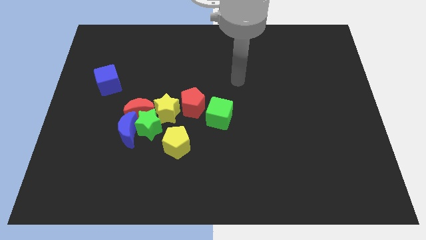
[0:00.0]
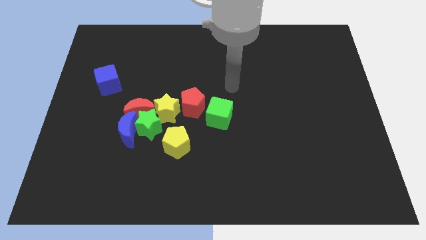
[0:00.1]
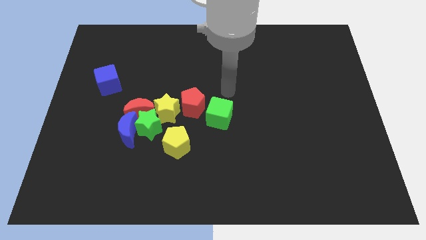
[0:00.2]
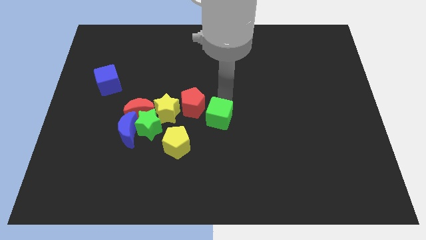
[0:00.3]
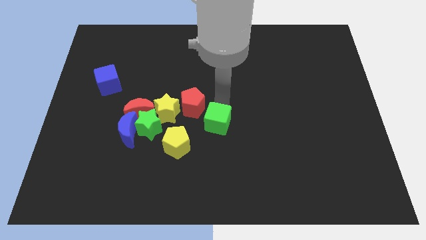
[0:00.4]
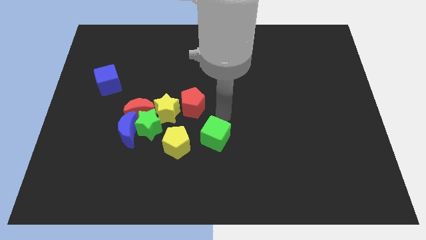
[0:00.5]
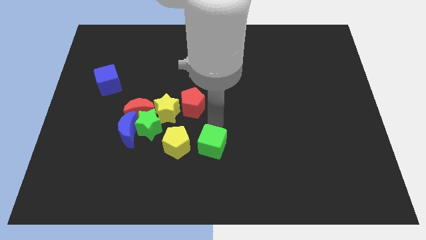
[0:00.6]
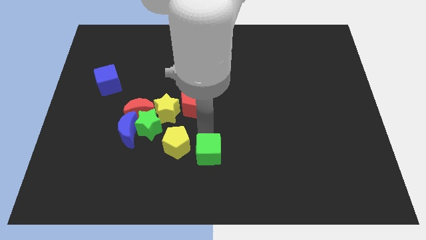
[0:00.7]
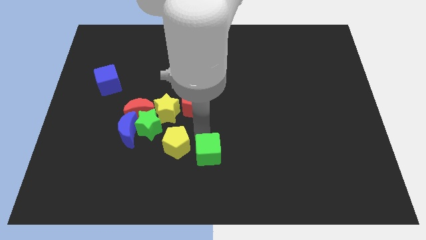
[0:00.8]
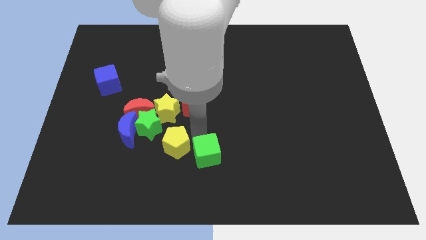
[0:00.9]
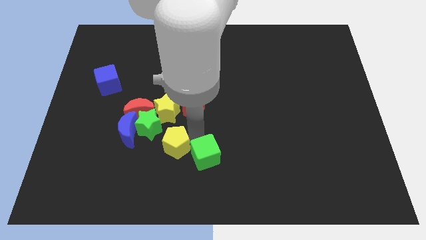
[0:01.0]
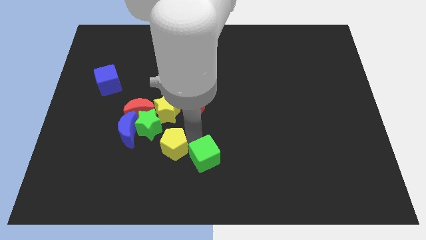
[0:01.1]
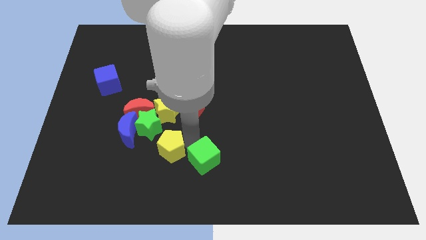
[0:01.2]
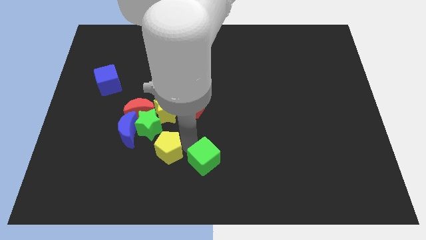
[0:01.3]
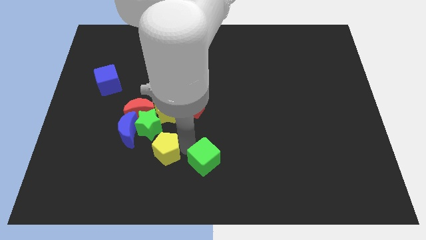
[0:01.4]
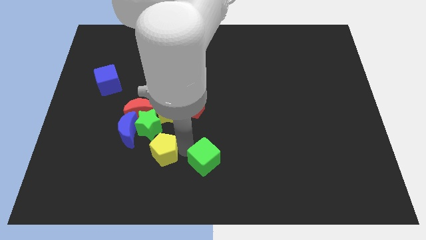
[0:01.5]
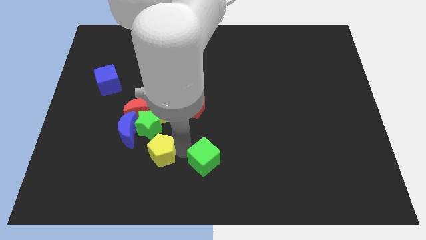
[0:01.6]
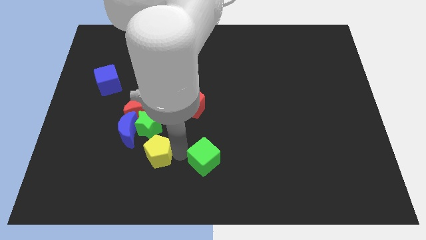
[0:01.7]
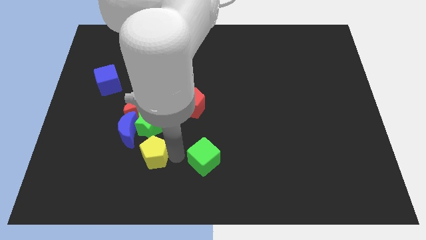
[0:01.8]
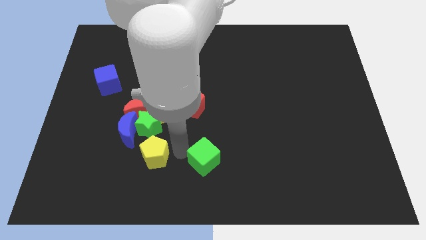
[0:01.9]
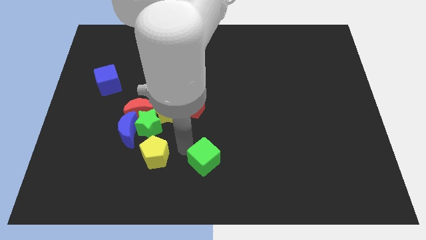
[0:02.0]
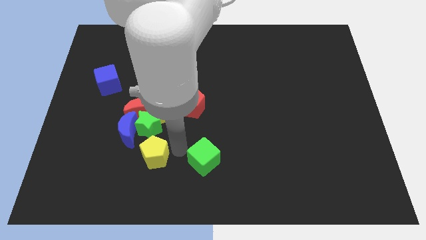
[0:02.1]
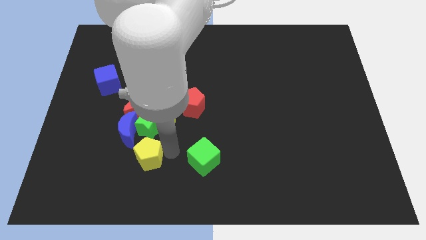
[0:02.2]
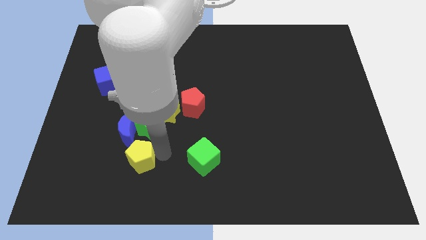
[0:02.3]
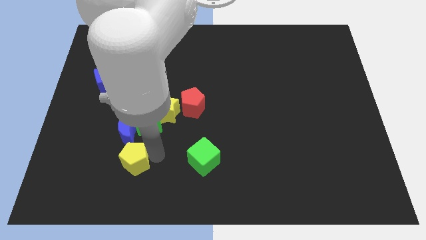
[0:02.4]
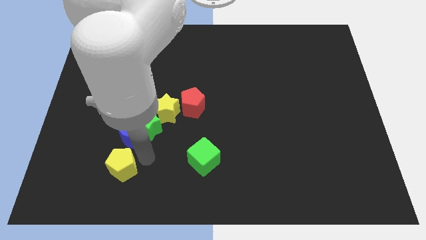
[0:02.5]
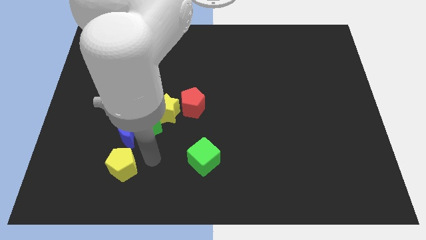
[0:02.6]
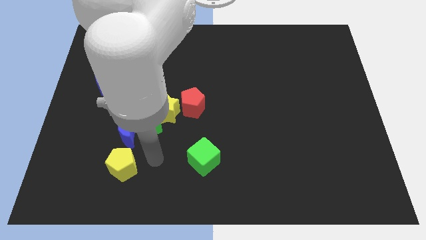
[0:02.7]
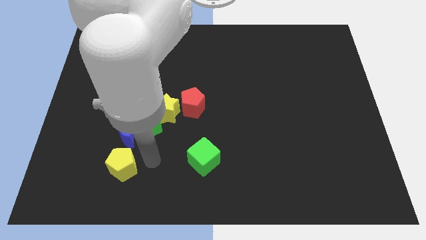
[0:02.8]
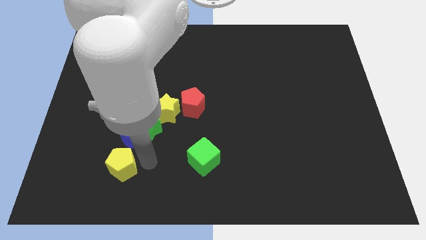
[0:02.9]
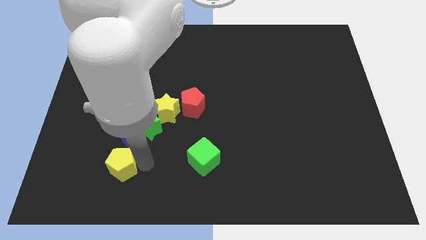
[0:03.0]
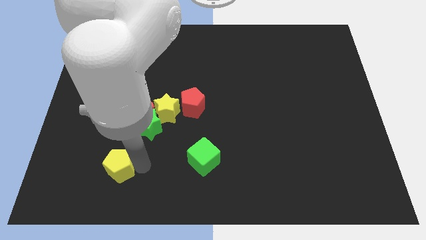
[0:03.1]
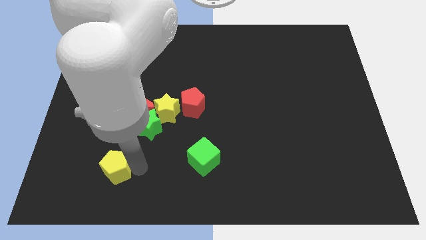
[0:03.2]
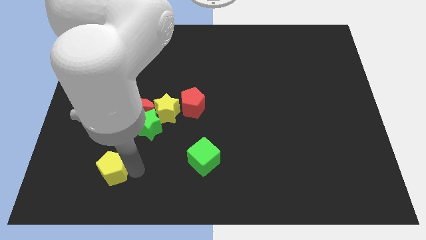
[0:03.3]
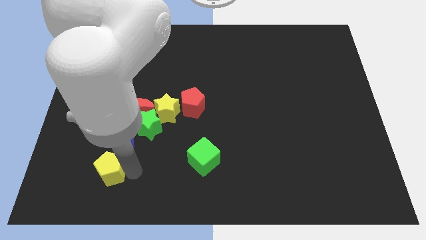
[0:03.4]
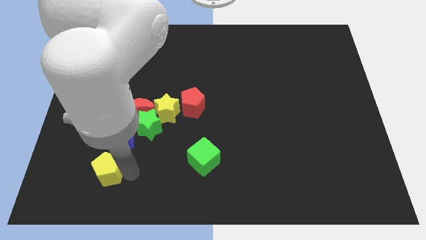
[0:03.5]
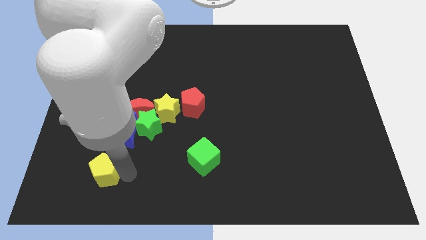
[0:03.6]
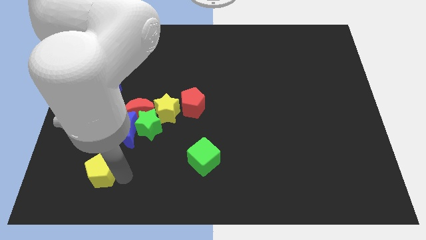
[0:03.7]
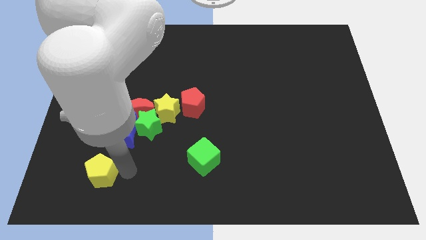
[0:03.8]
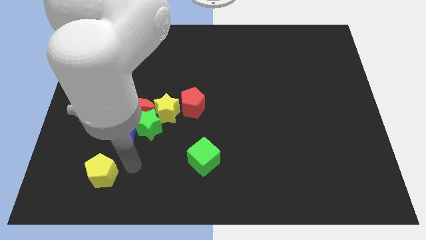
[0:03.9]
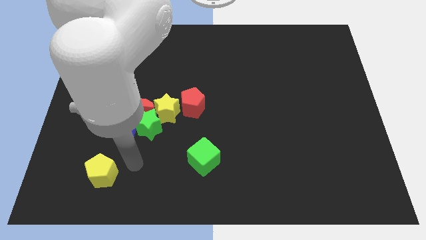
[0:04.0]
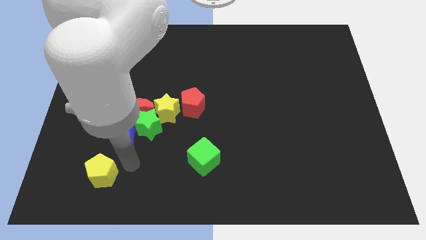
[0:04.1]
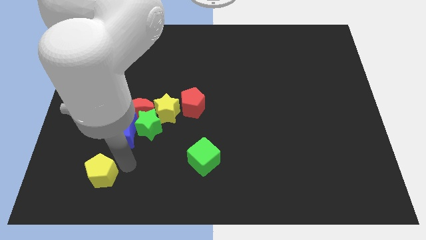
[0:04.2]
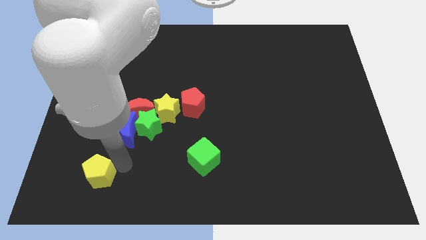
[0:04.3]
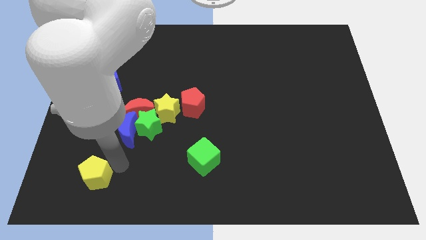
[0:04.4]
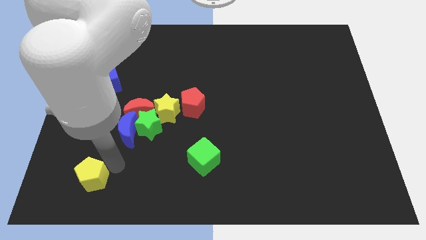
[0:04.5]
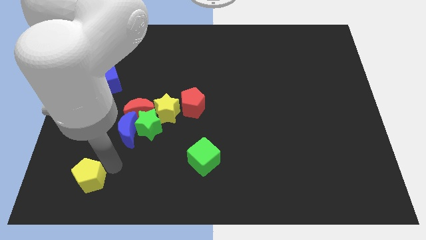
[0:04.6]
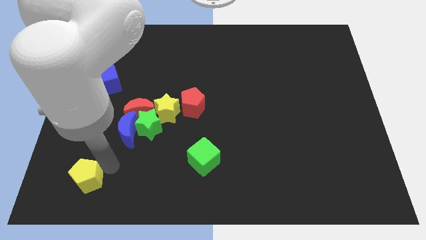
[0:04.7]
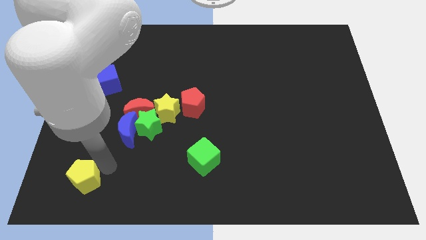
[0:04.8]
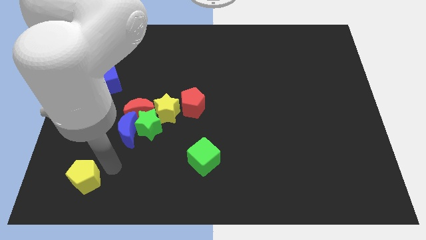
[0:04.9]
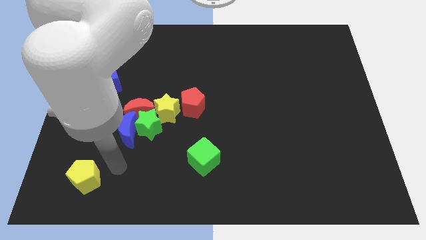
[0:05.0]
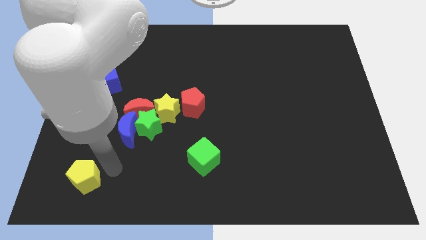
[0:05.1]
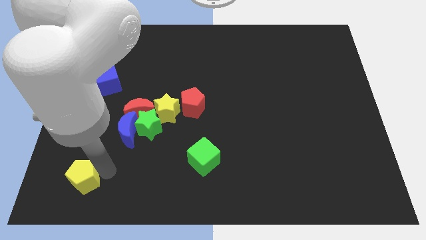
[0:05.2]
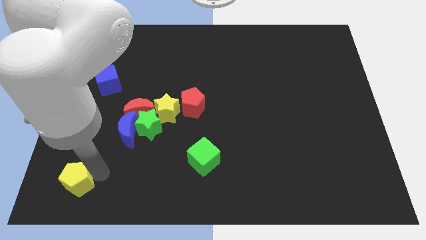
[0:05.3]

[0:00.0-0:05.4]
put the yellow pentagon to the bottom left

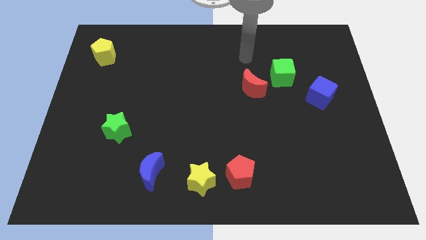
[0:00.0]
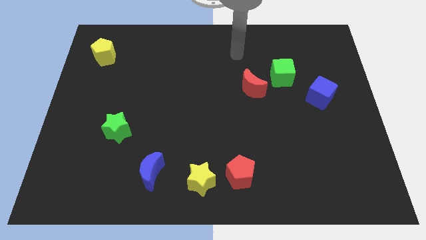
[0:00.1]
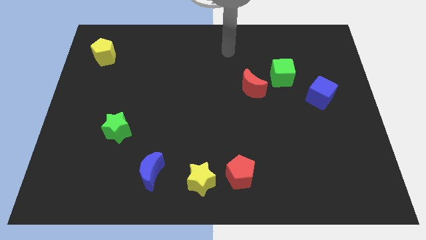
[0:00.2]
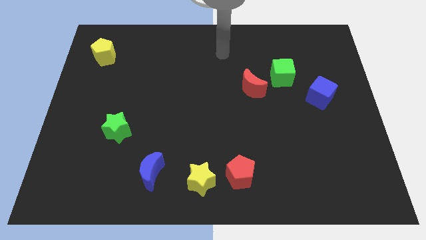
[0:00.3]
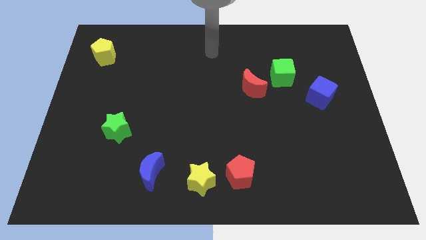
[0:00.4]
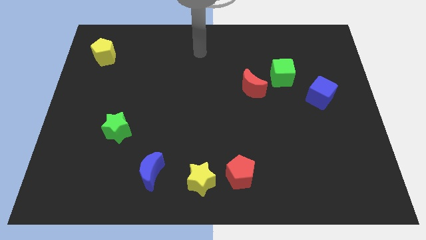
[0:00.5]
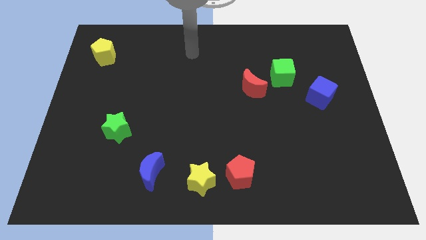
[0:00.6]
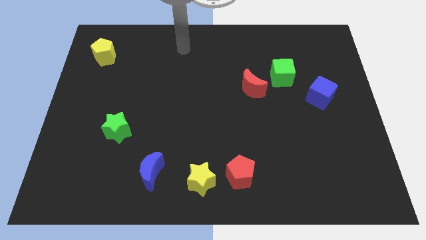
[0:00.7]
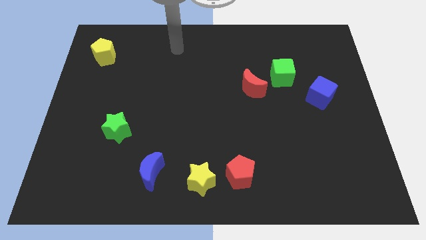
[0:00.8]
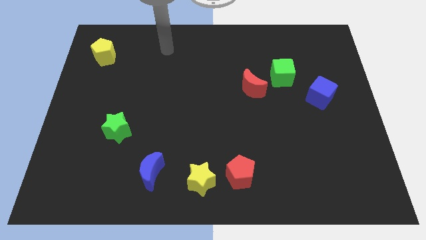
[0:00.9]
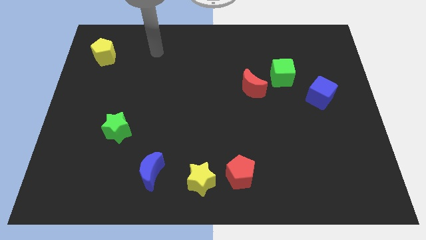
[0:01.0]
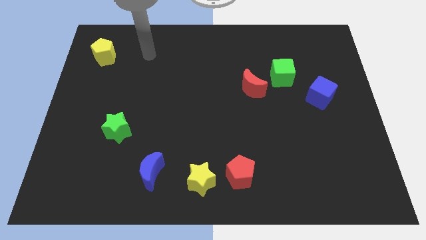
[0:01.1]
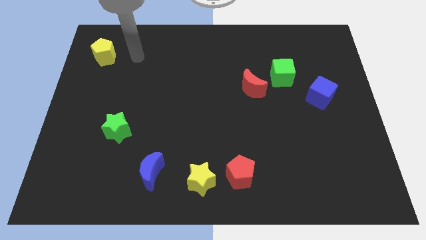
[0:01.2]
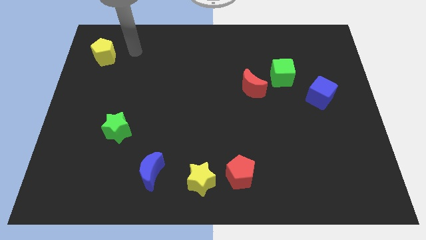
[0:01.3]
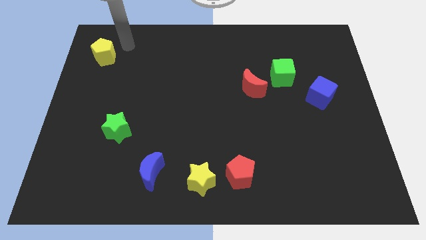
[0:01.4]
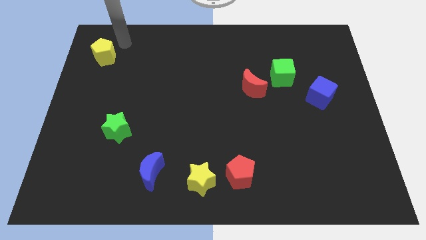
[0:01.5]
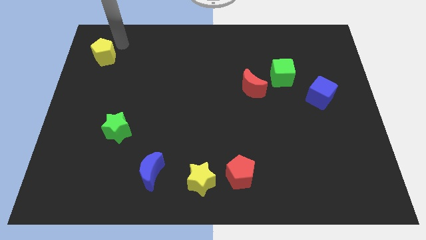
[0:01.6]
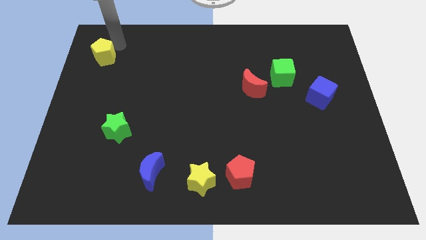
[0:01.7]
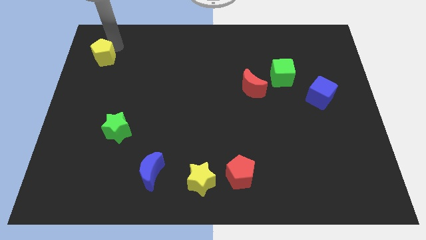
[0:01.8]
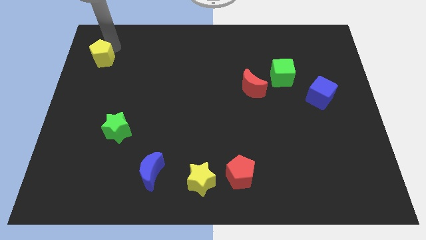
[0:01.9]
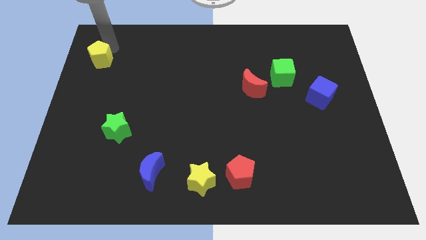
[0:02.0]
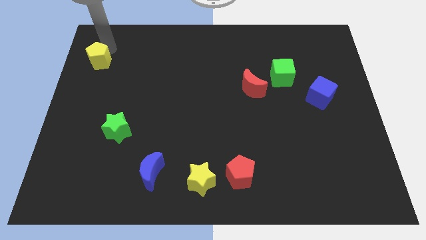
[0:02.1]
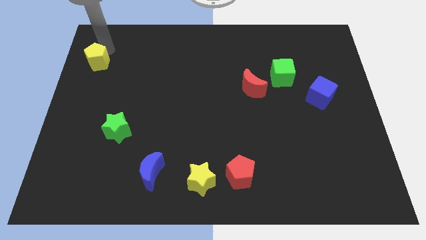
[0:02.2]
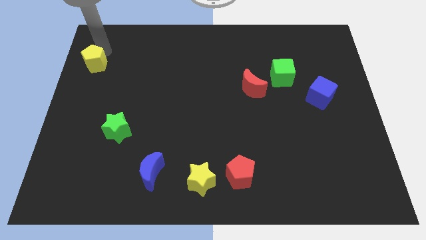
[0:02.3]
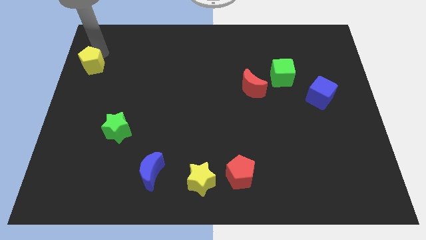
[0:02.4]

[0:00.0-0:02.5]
put the yellow pentagon to the center left

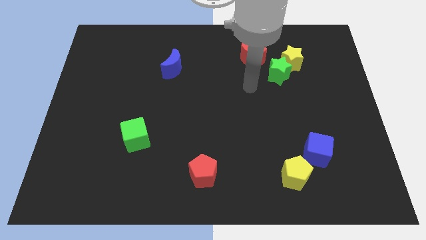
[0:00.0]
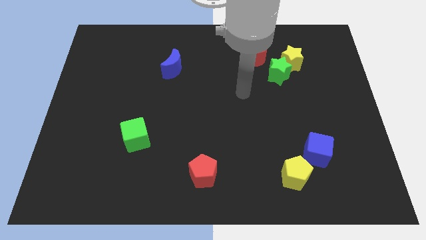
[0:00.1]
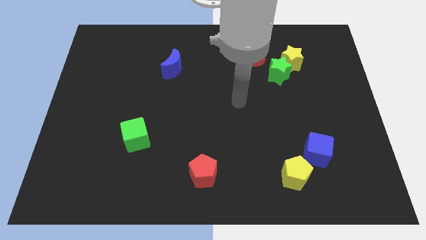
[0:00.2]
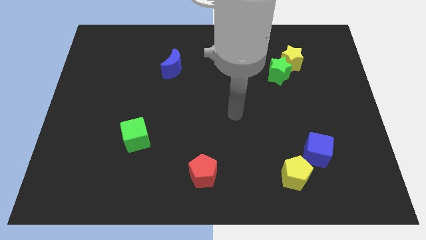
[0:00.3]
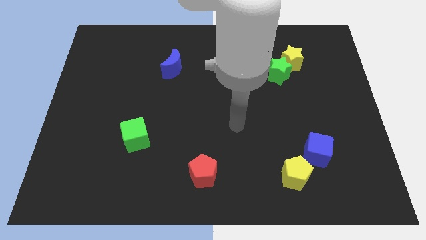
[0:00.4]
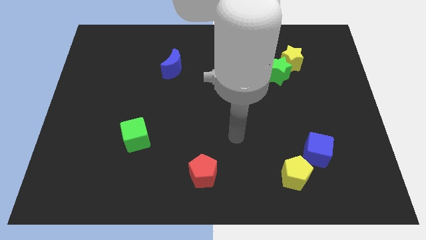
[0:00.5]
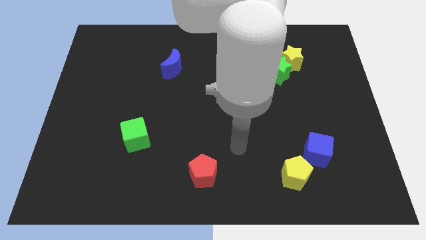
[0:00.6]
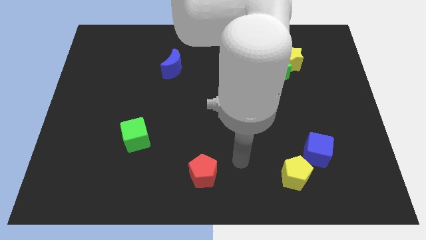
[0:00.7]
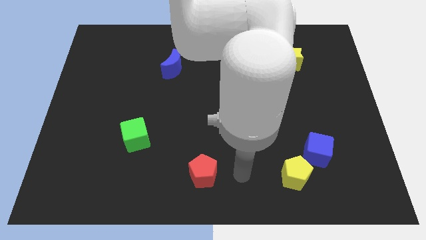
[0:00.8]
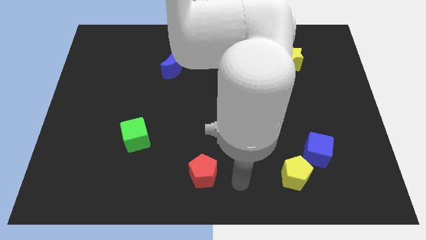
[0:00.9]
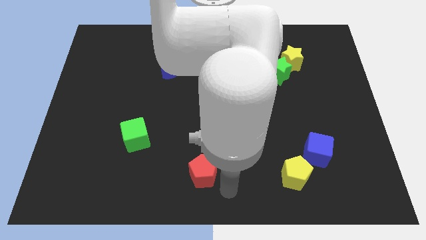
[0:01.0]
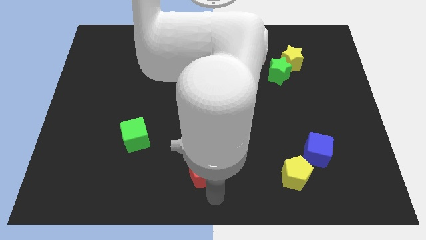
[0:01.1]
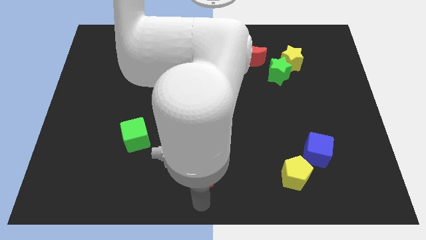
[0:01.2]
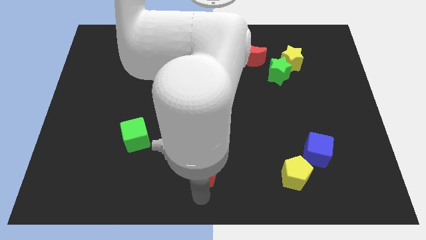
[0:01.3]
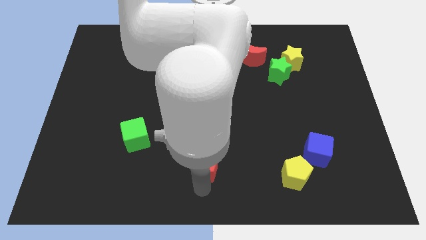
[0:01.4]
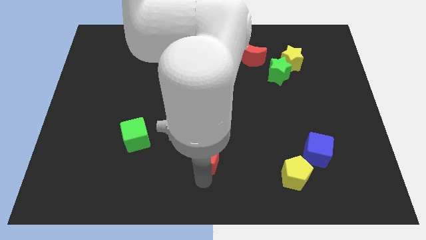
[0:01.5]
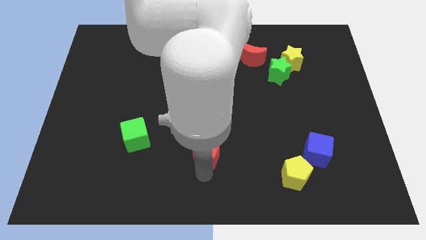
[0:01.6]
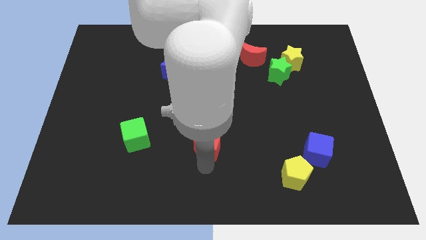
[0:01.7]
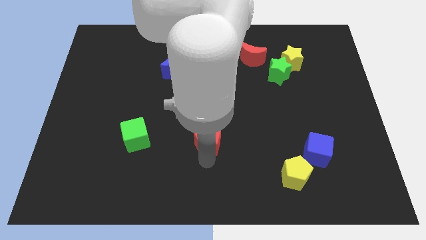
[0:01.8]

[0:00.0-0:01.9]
push the red pentagon to the center of the board
